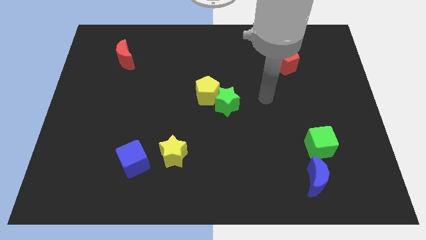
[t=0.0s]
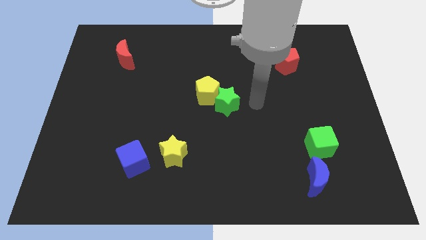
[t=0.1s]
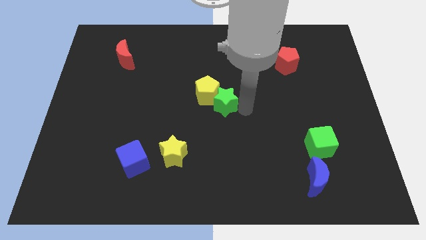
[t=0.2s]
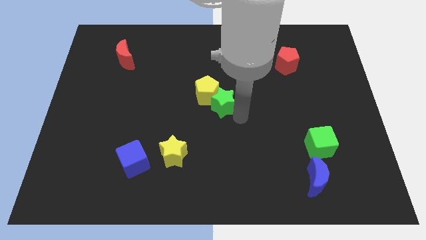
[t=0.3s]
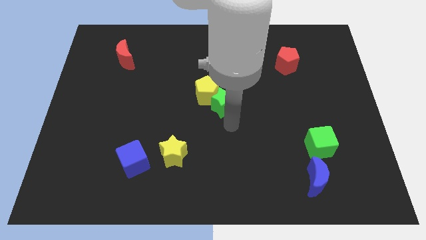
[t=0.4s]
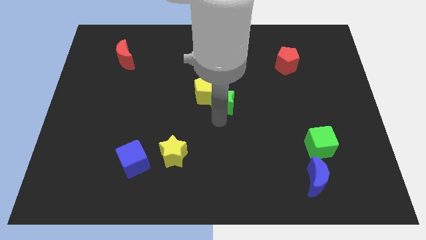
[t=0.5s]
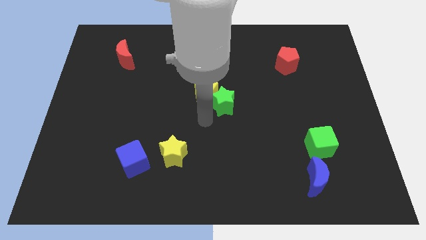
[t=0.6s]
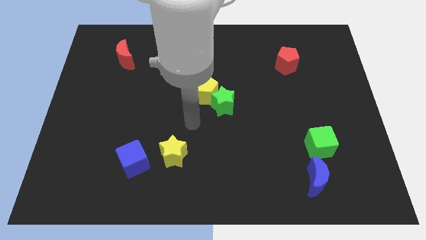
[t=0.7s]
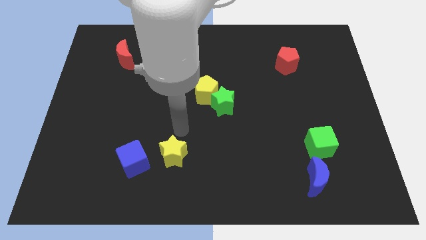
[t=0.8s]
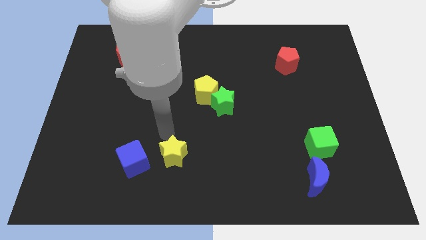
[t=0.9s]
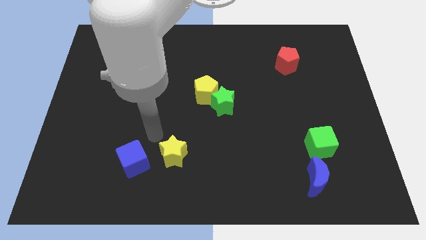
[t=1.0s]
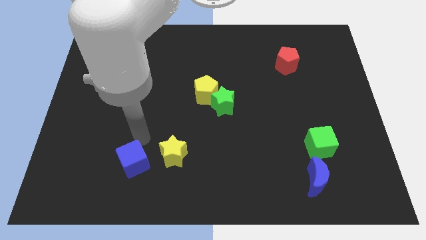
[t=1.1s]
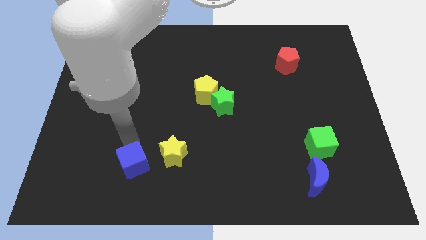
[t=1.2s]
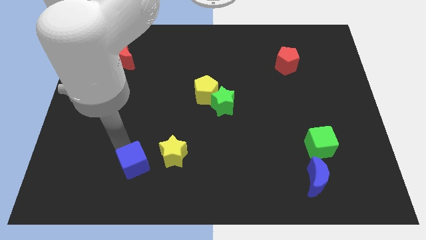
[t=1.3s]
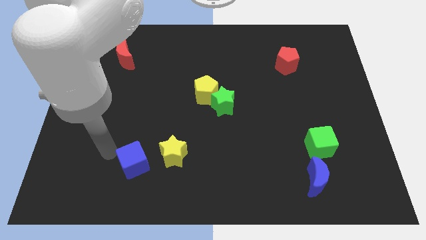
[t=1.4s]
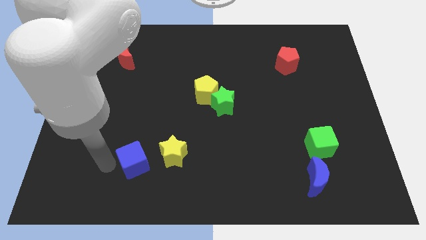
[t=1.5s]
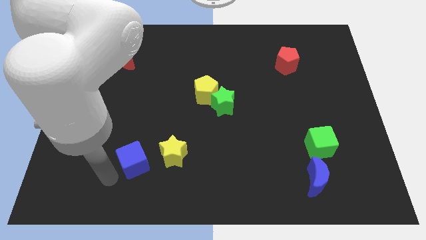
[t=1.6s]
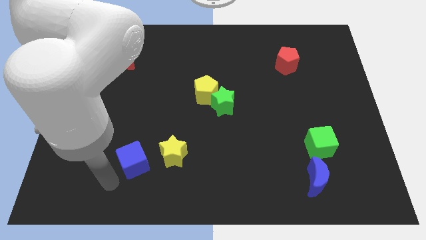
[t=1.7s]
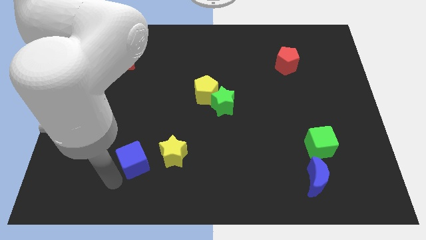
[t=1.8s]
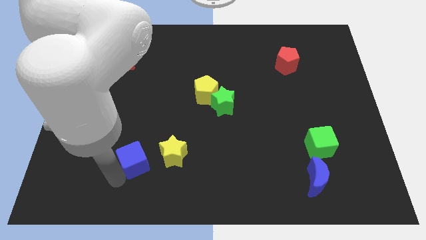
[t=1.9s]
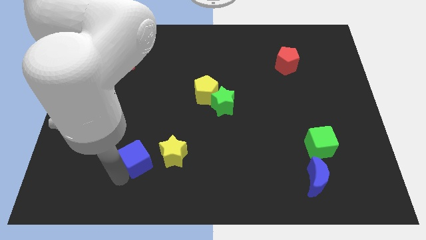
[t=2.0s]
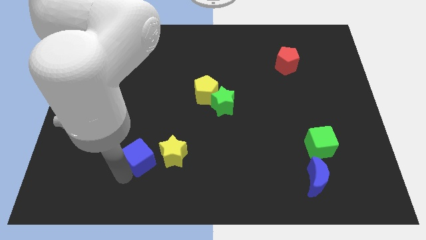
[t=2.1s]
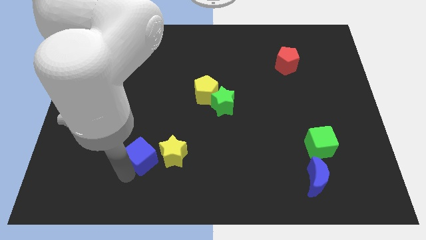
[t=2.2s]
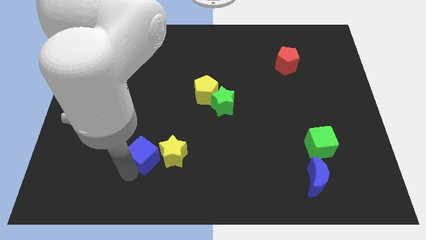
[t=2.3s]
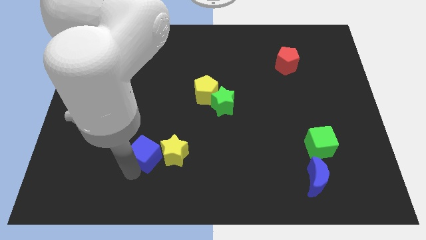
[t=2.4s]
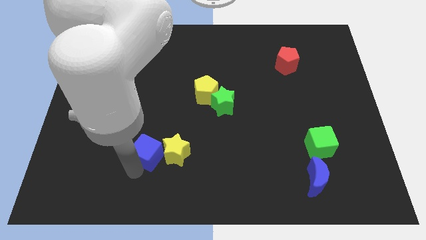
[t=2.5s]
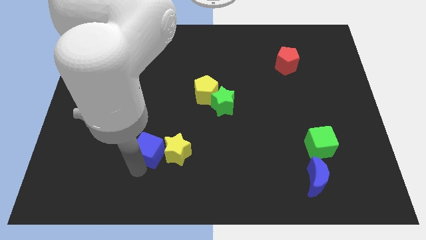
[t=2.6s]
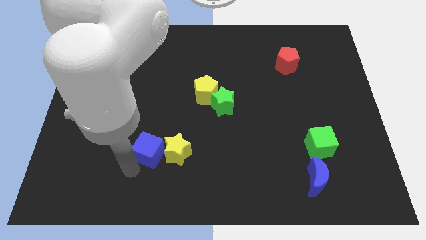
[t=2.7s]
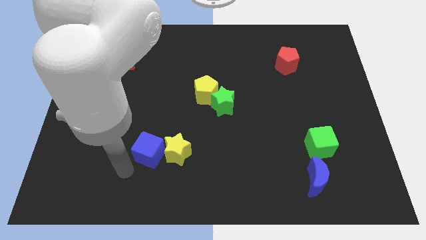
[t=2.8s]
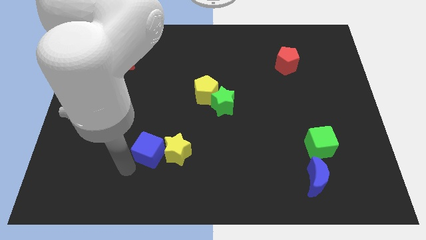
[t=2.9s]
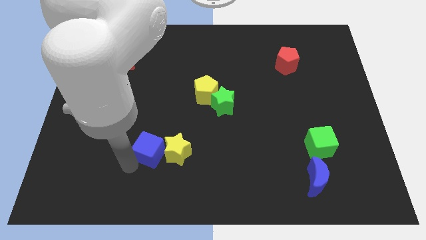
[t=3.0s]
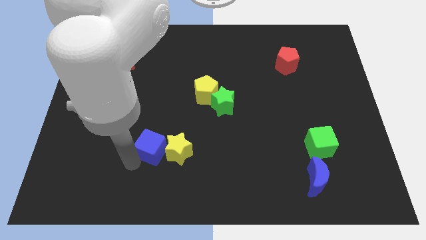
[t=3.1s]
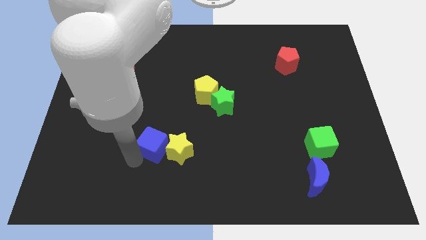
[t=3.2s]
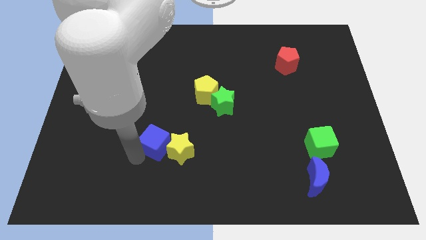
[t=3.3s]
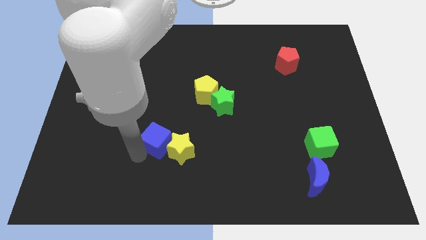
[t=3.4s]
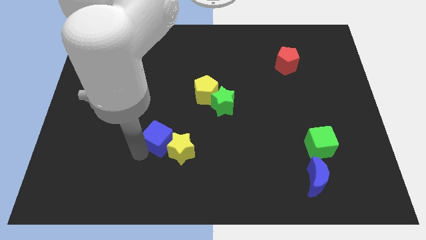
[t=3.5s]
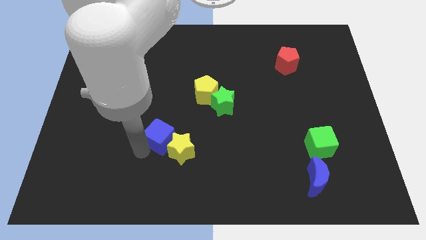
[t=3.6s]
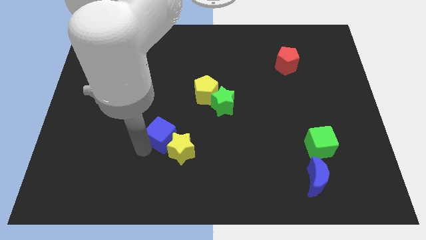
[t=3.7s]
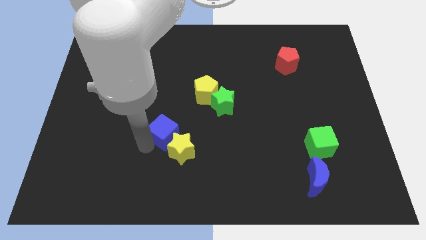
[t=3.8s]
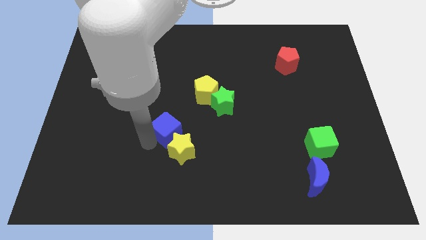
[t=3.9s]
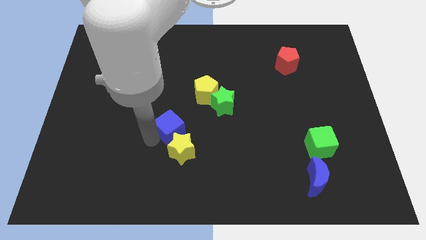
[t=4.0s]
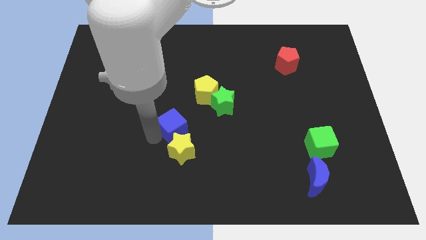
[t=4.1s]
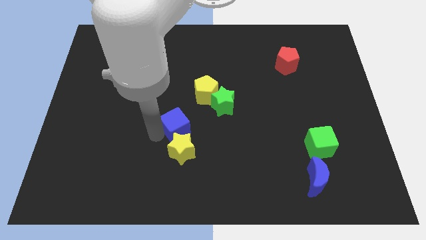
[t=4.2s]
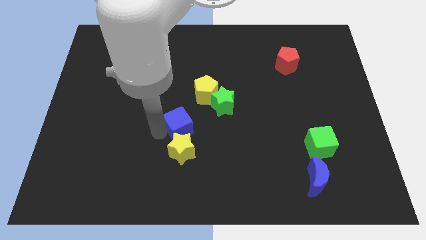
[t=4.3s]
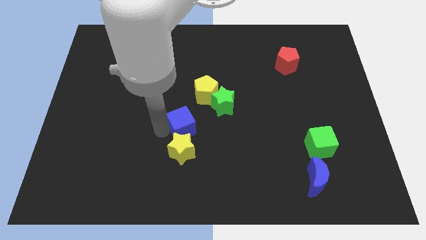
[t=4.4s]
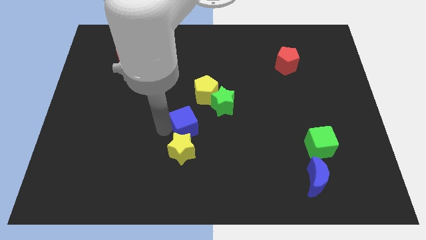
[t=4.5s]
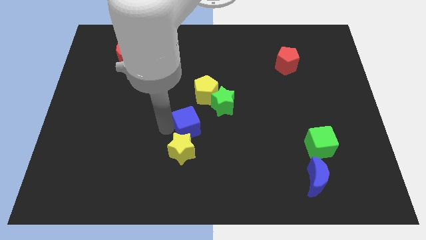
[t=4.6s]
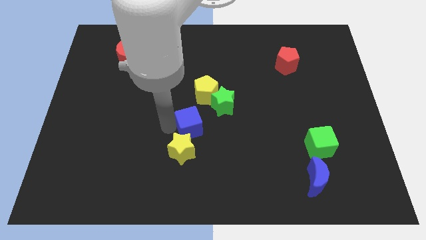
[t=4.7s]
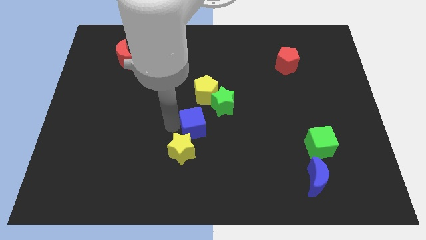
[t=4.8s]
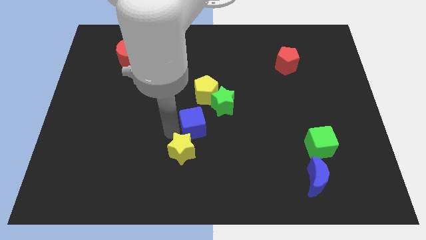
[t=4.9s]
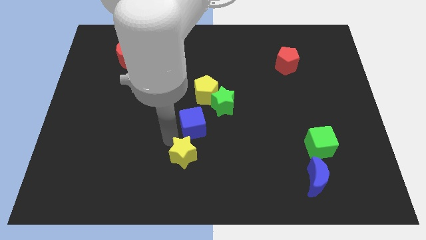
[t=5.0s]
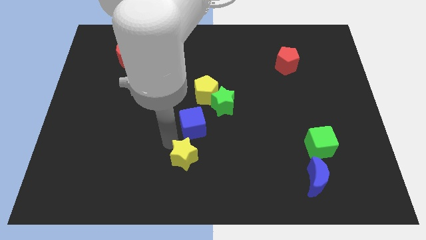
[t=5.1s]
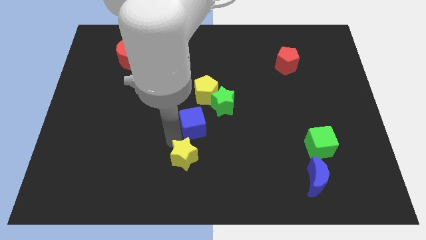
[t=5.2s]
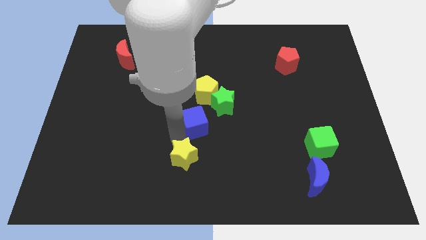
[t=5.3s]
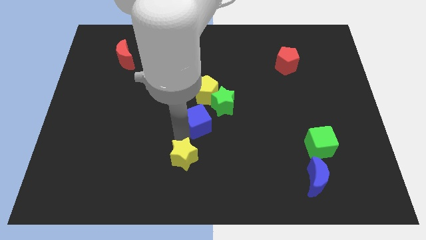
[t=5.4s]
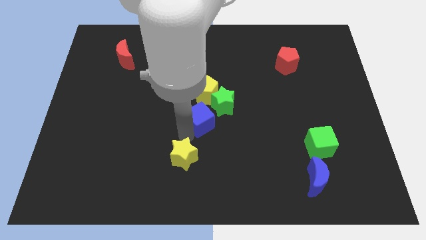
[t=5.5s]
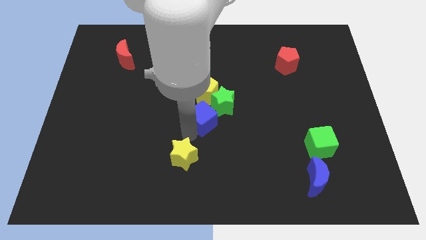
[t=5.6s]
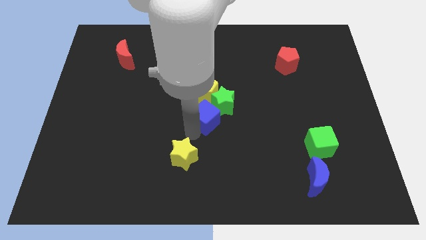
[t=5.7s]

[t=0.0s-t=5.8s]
slide the blue cube towards the green star

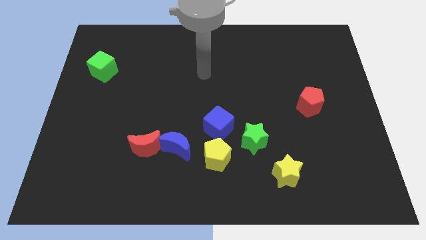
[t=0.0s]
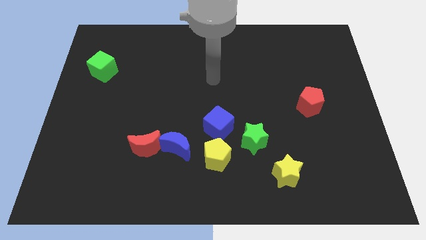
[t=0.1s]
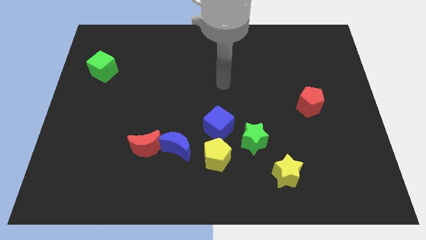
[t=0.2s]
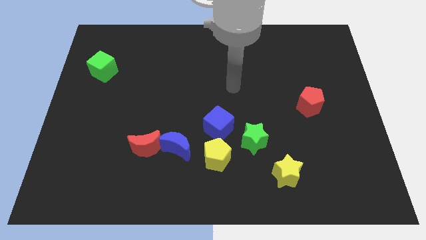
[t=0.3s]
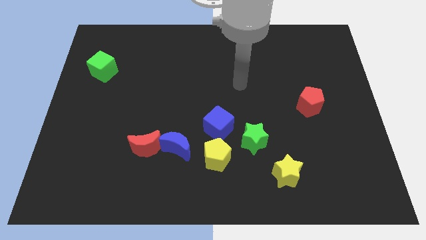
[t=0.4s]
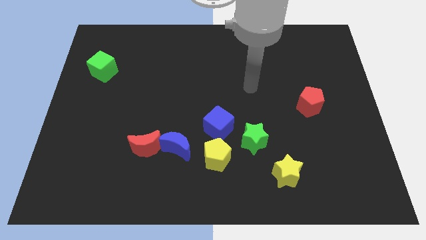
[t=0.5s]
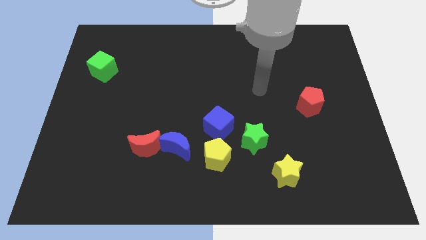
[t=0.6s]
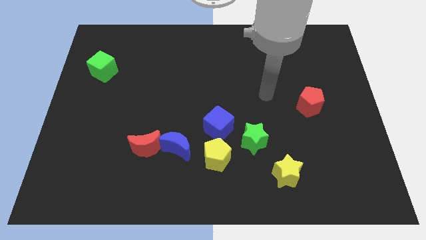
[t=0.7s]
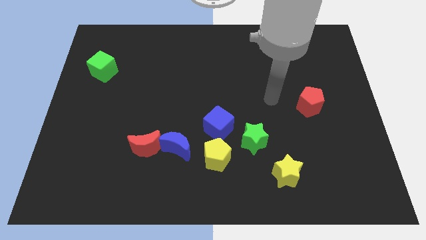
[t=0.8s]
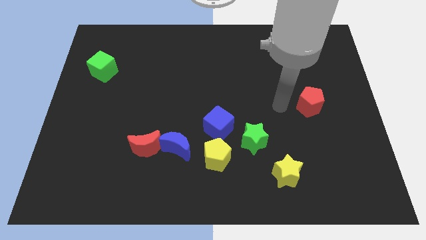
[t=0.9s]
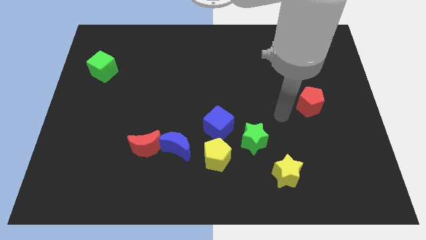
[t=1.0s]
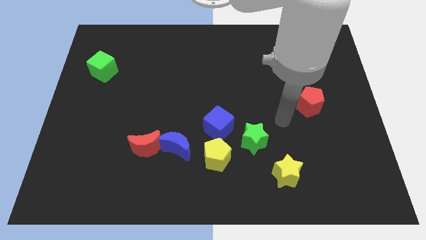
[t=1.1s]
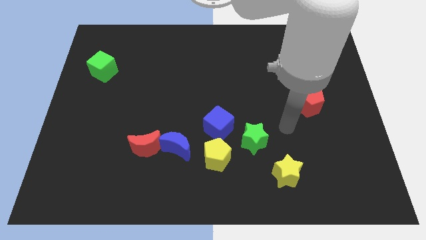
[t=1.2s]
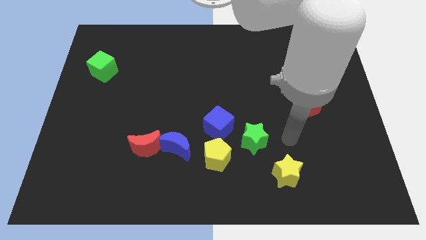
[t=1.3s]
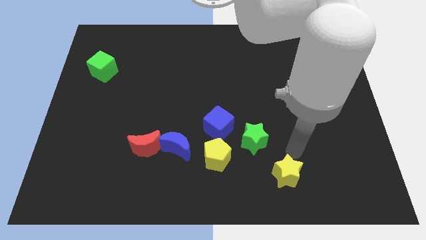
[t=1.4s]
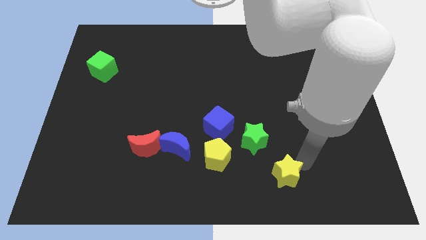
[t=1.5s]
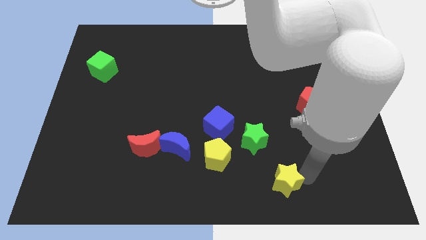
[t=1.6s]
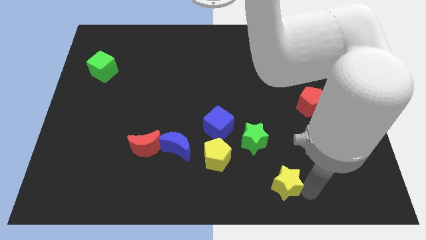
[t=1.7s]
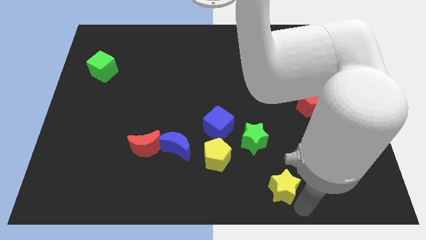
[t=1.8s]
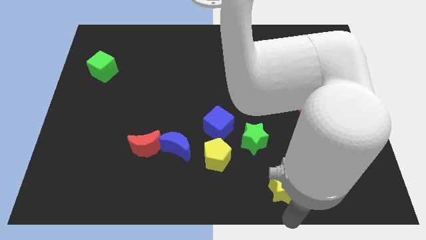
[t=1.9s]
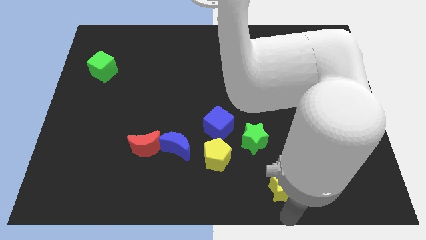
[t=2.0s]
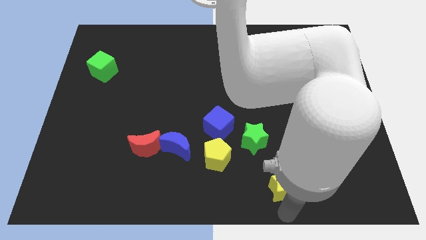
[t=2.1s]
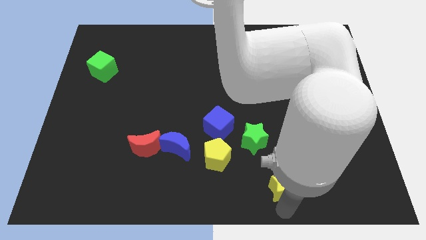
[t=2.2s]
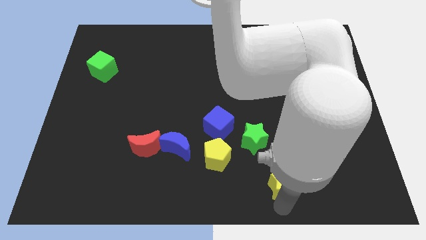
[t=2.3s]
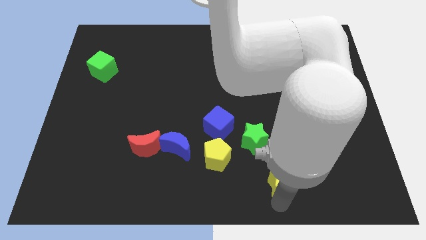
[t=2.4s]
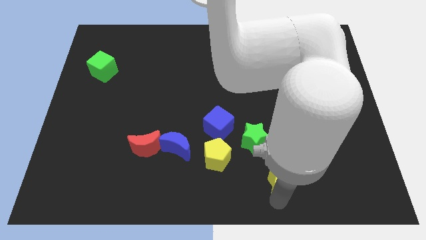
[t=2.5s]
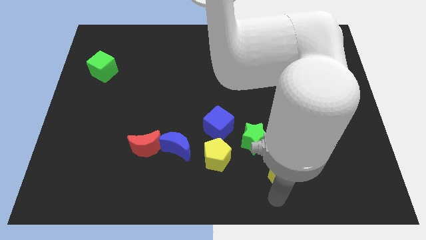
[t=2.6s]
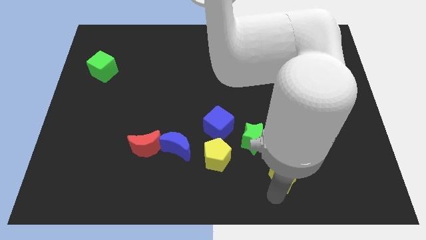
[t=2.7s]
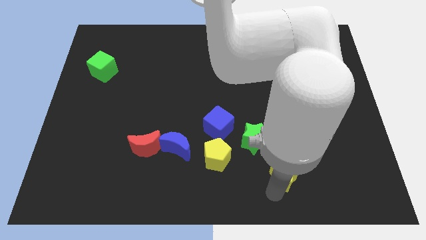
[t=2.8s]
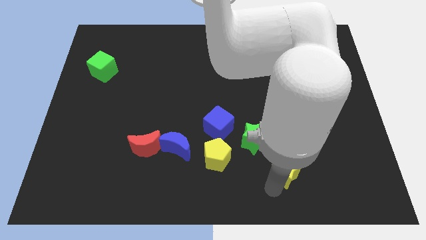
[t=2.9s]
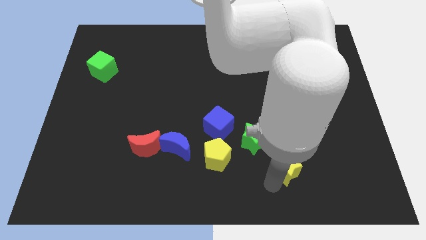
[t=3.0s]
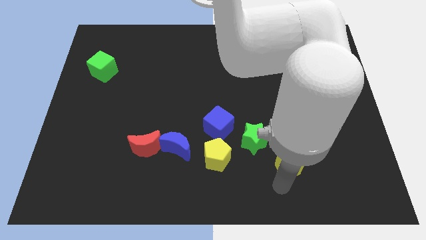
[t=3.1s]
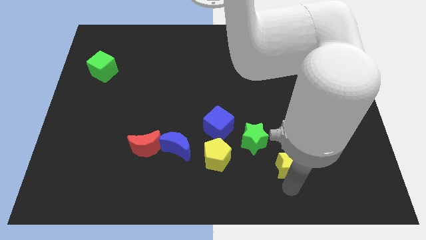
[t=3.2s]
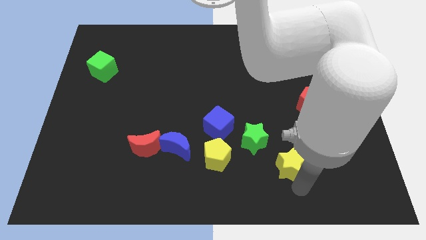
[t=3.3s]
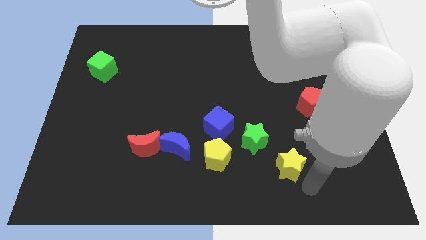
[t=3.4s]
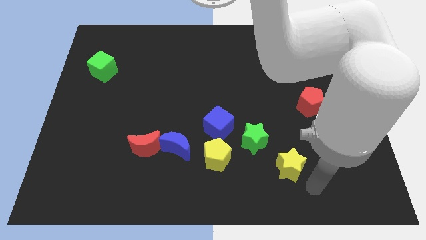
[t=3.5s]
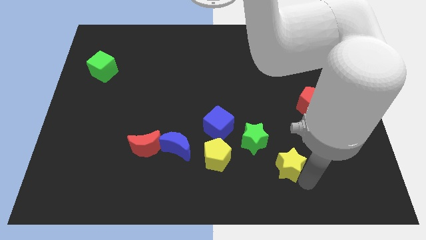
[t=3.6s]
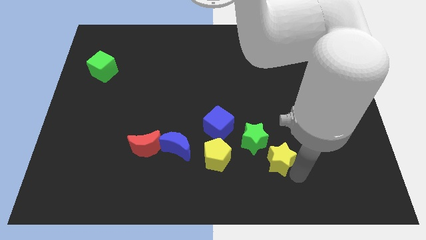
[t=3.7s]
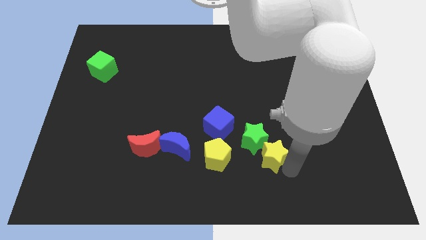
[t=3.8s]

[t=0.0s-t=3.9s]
slide the yellow star to the green star
